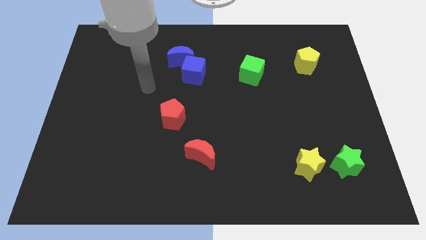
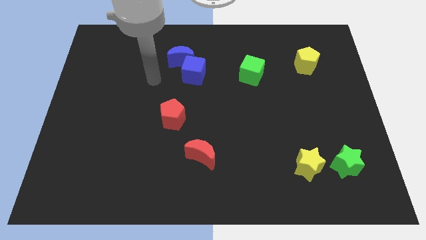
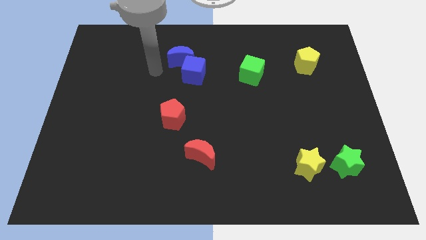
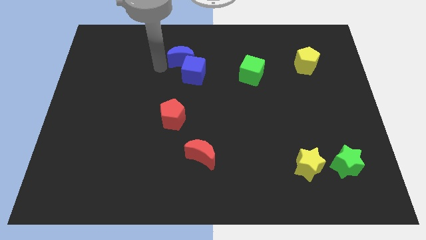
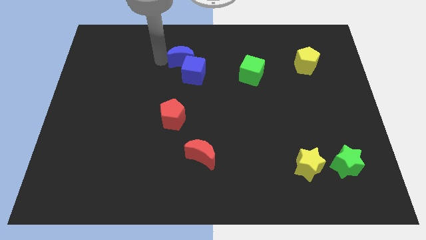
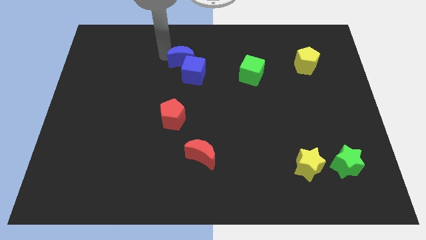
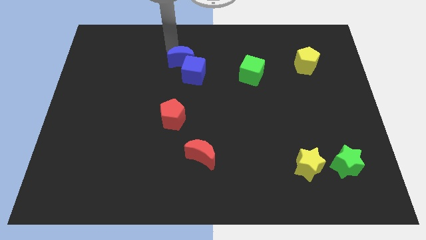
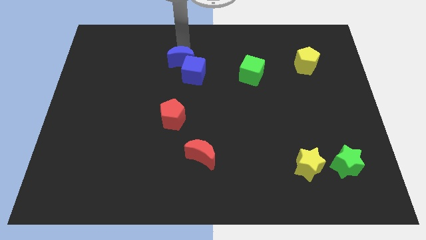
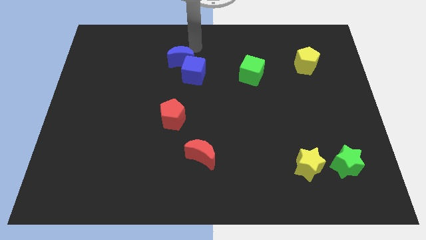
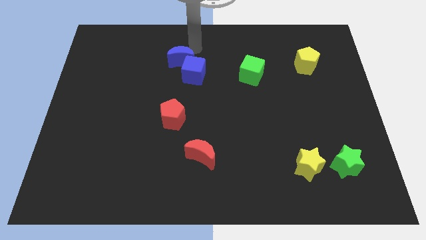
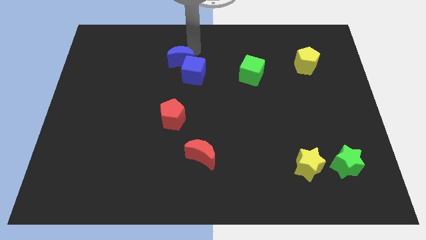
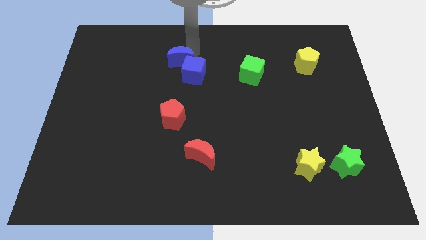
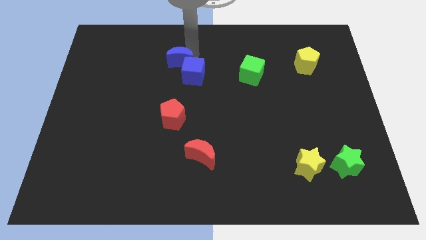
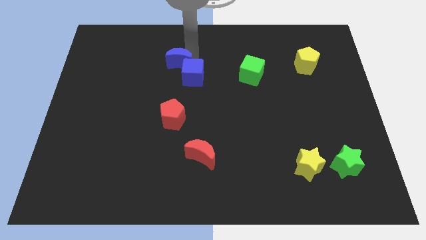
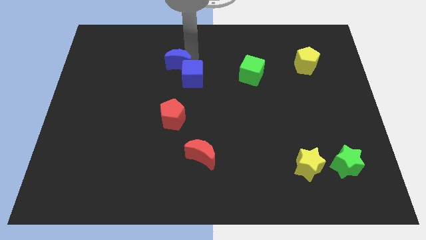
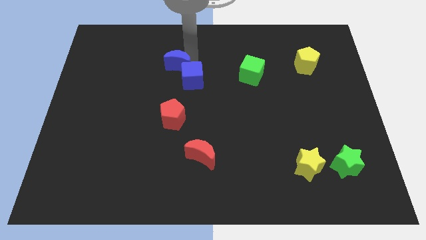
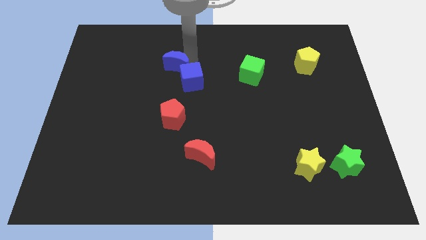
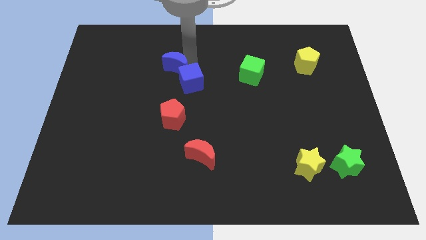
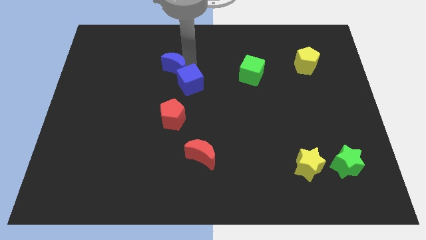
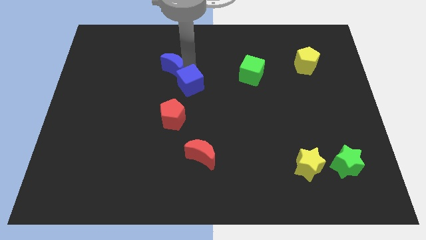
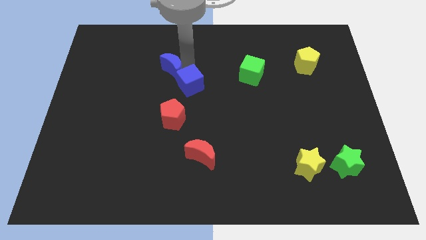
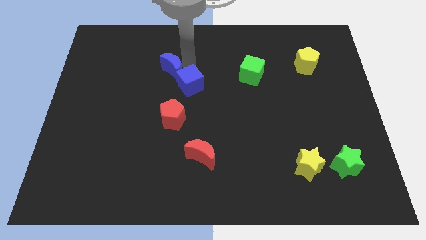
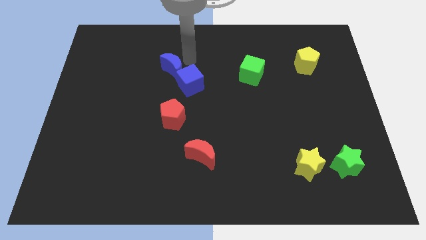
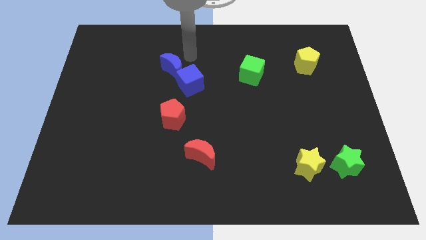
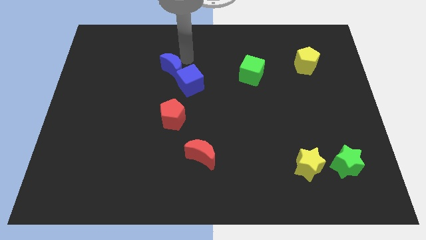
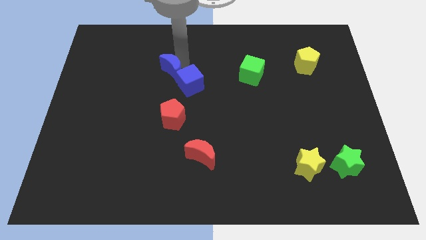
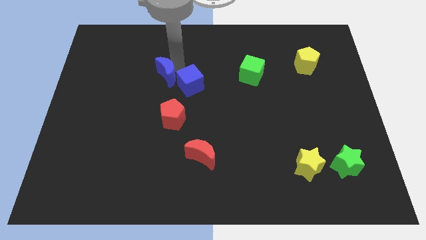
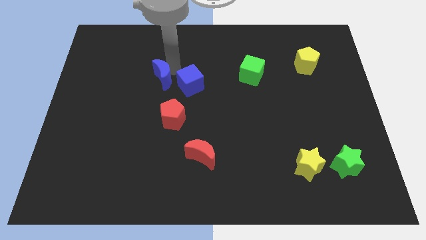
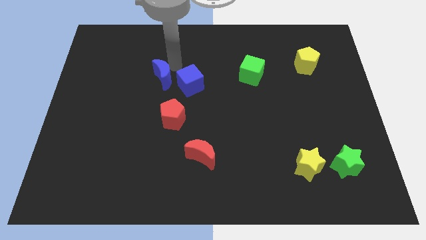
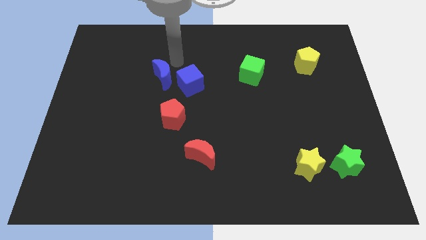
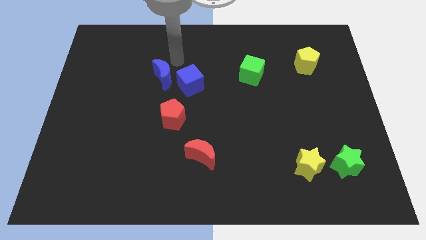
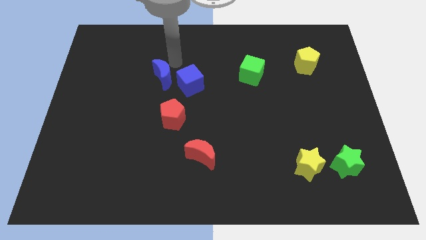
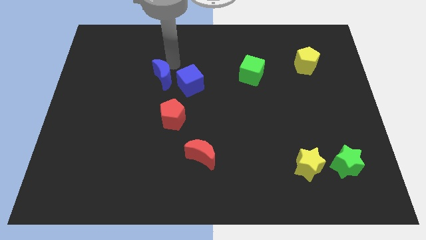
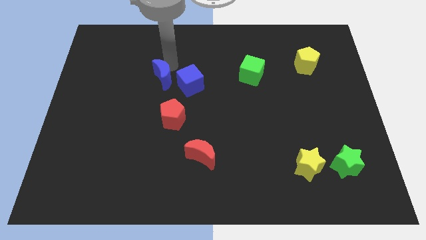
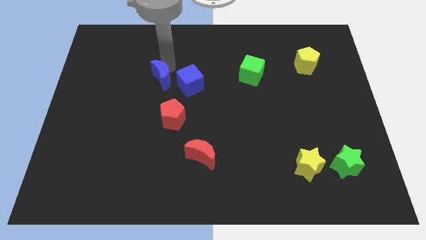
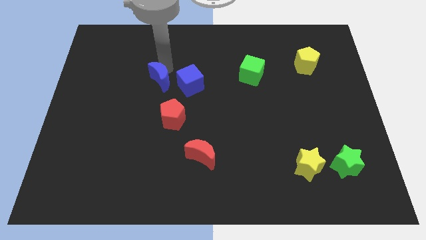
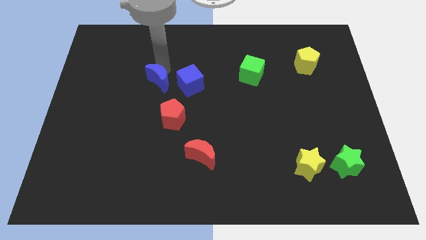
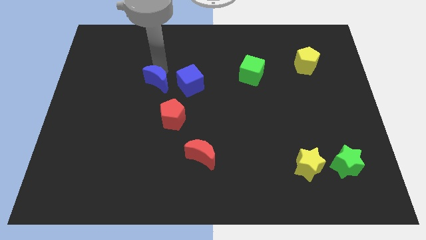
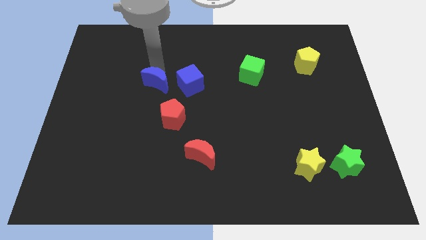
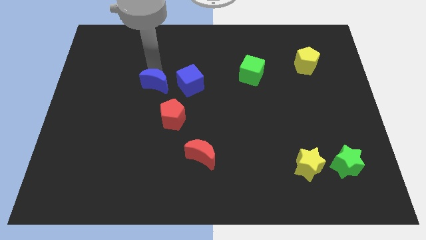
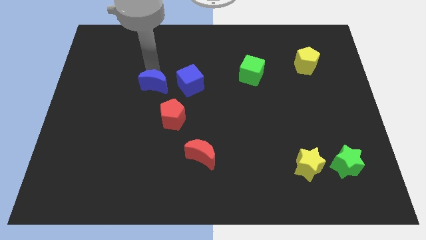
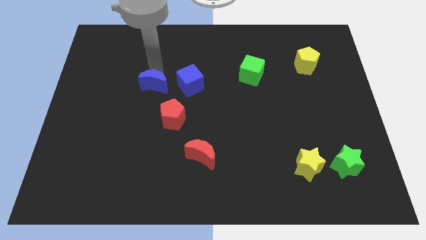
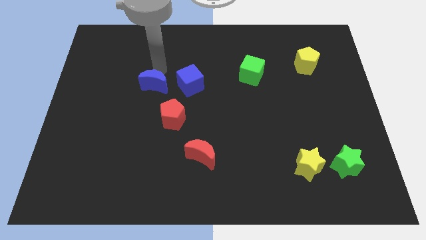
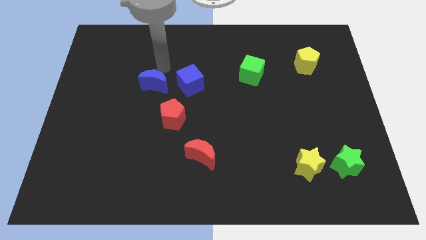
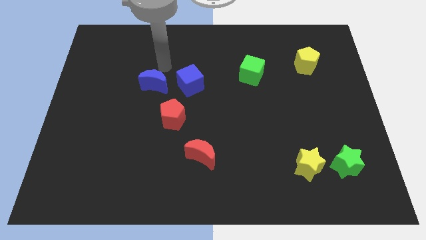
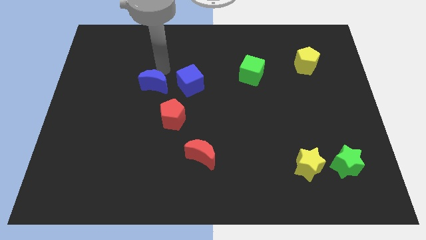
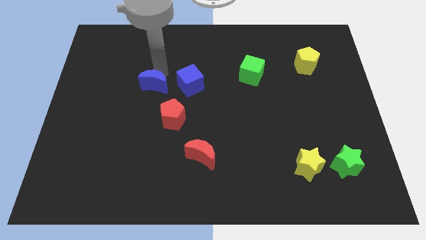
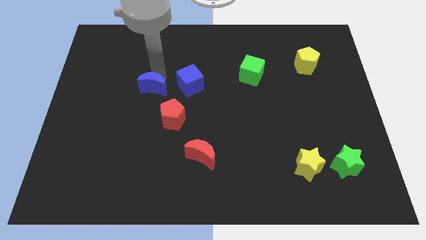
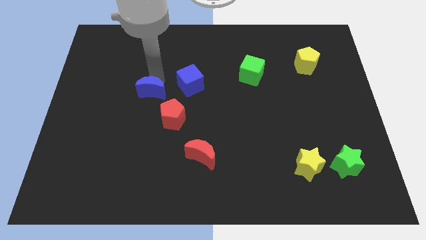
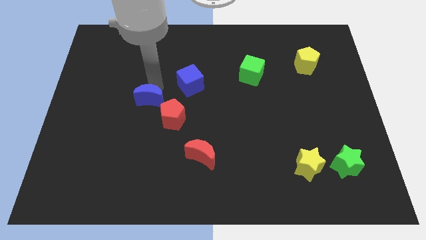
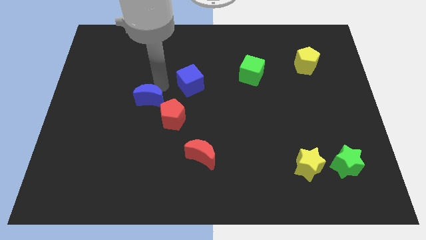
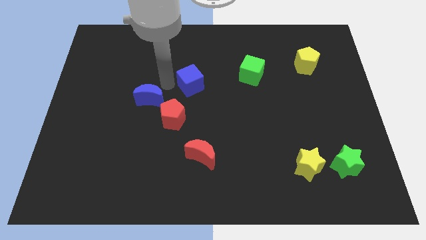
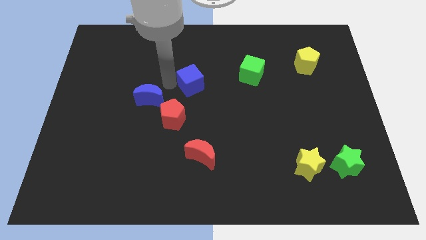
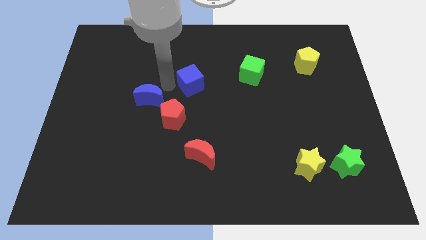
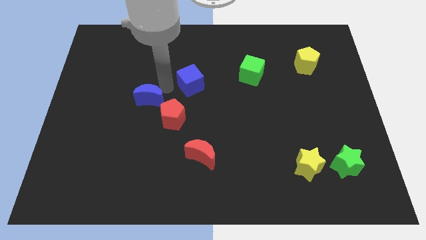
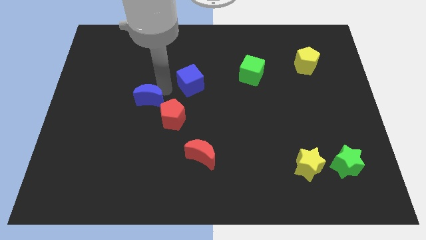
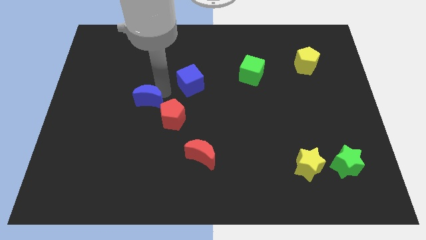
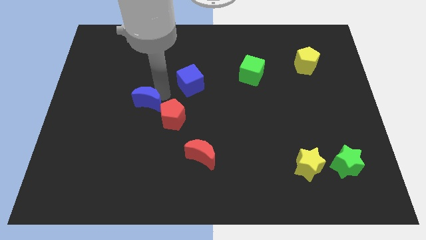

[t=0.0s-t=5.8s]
slide the blue moon left of the red pentagon

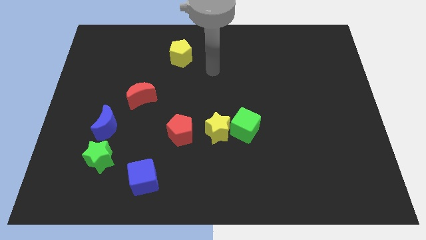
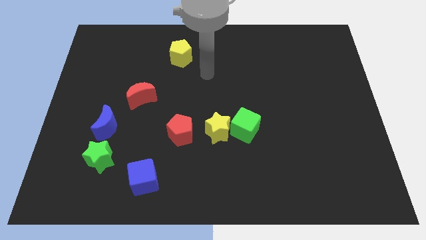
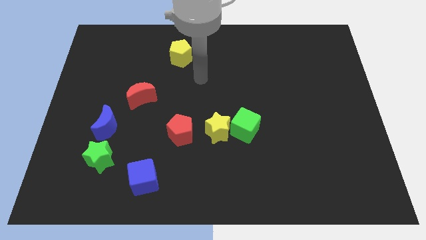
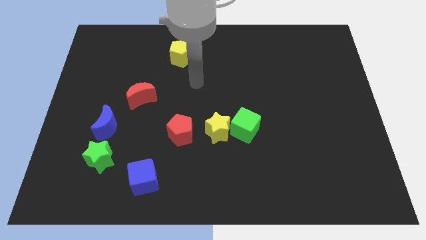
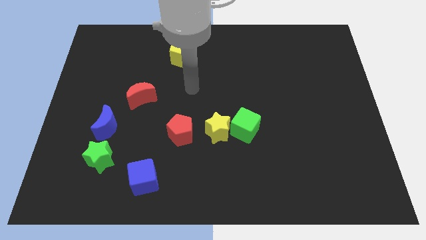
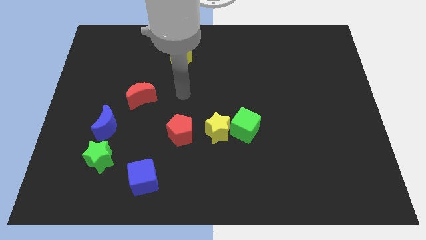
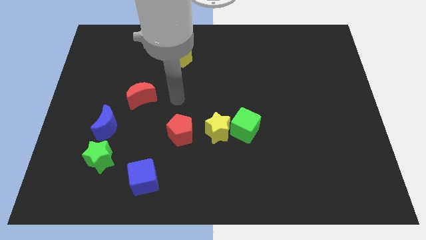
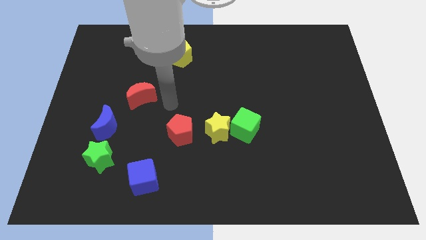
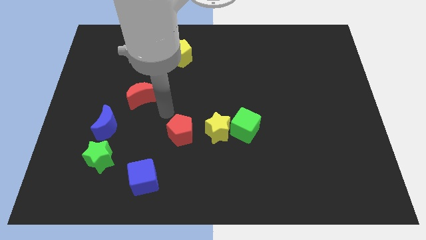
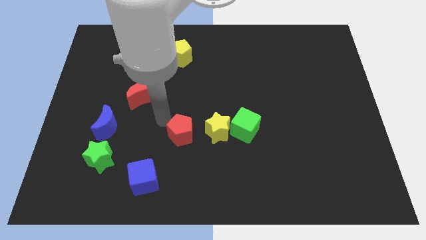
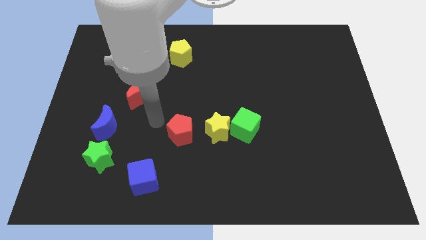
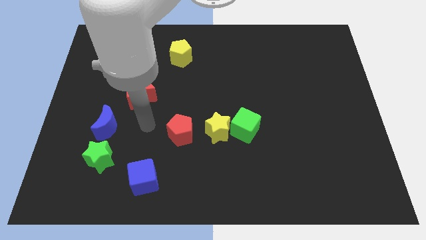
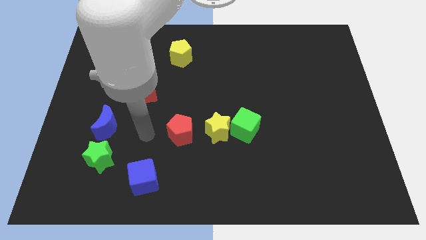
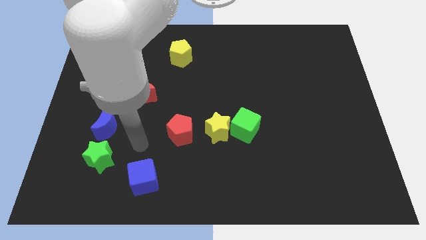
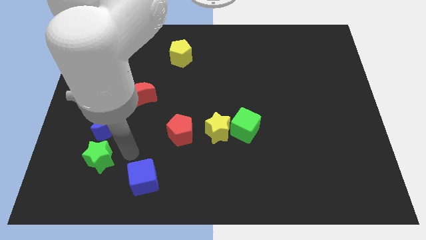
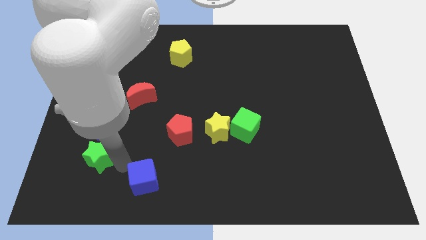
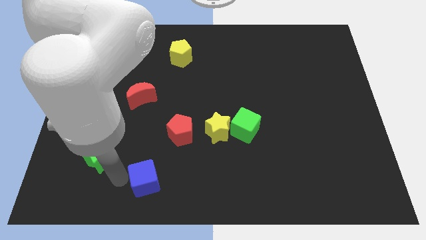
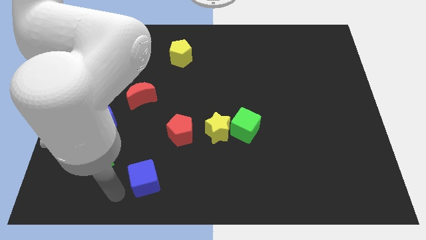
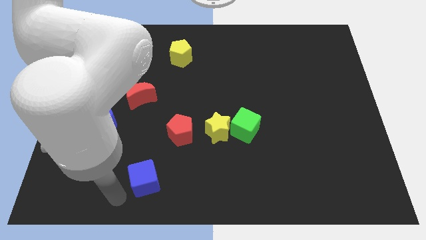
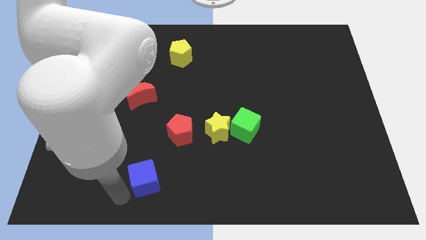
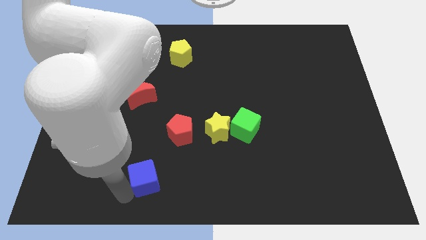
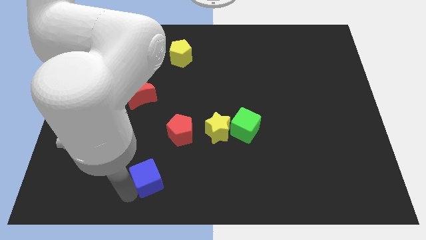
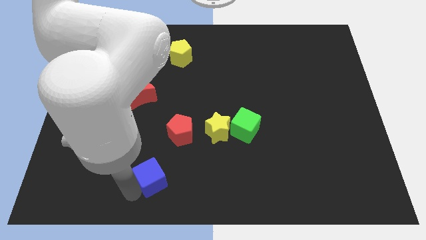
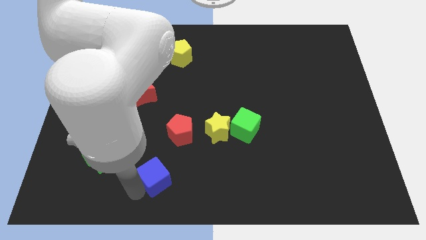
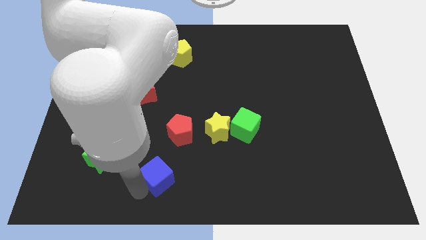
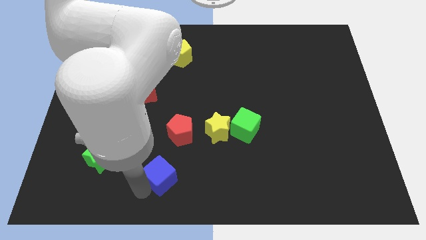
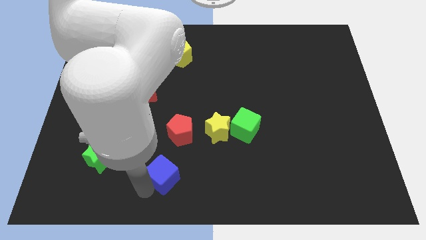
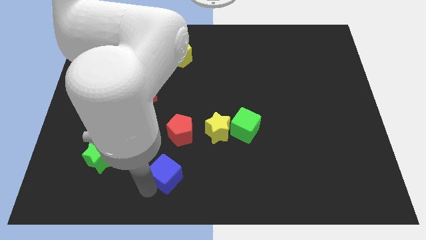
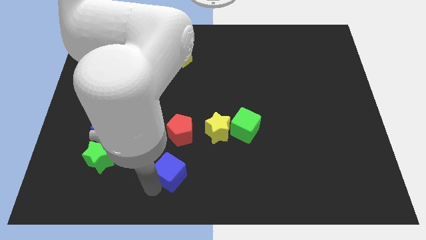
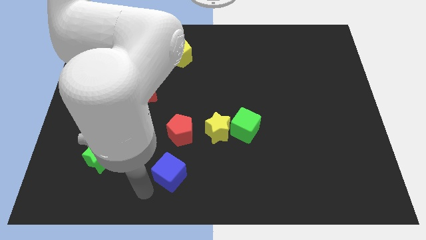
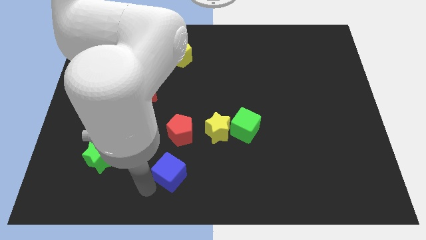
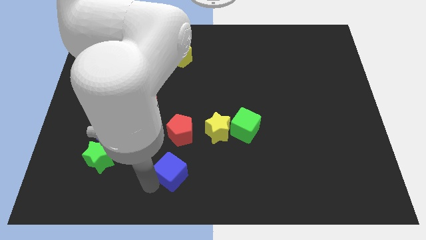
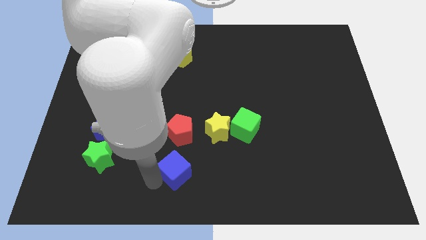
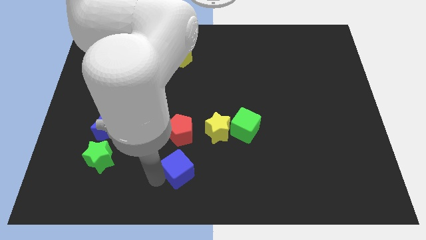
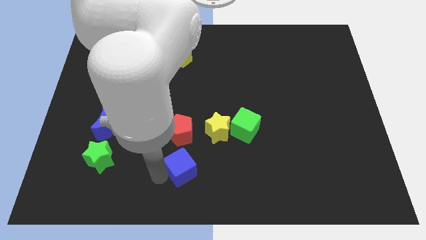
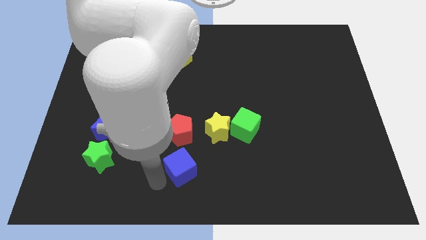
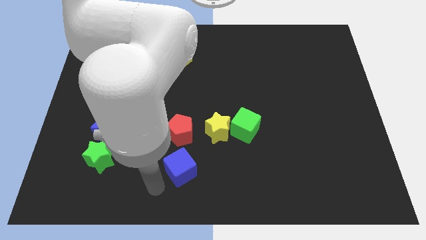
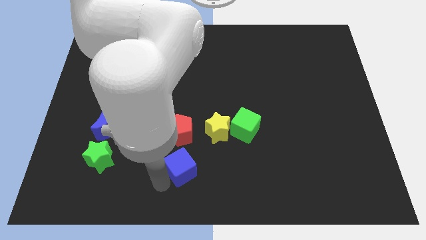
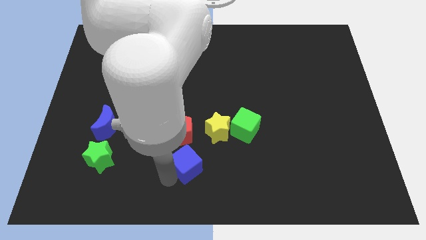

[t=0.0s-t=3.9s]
push the blue cube diagonally down and to the right of the red pentagon
